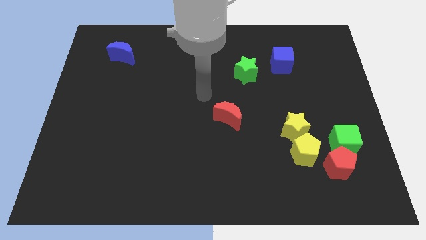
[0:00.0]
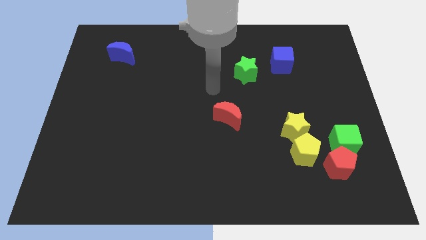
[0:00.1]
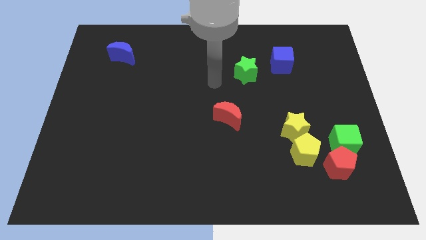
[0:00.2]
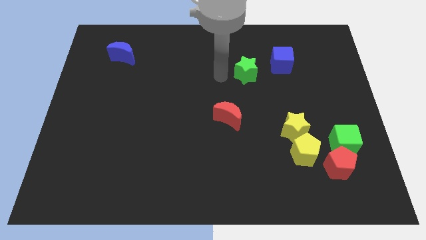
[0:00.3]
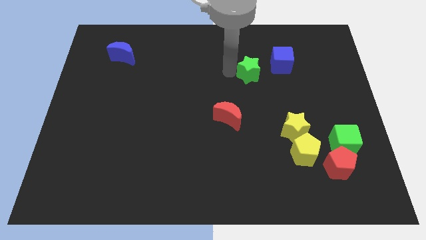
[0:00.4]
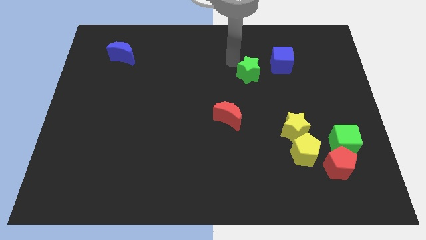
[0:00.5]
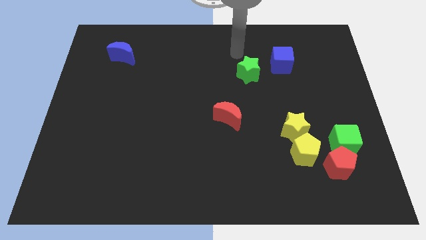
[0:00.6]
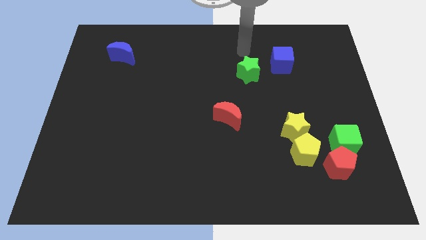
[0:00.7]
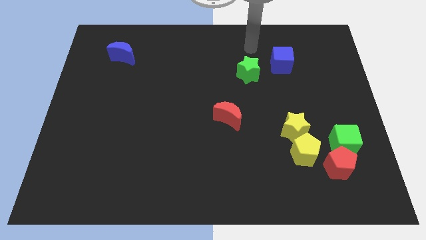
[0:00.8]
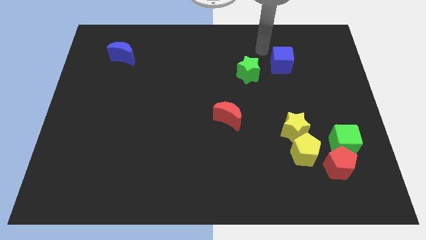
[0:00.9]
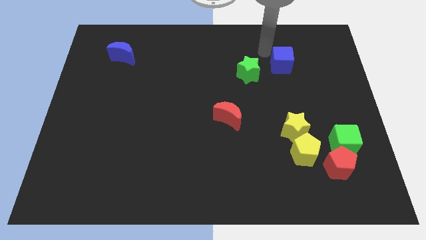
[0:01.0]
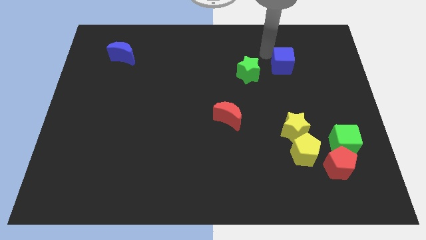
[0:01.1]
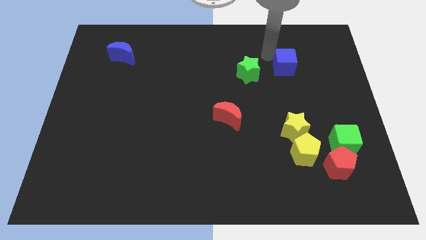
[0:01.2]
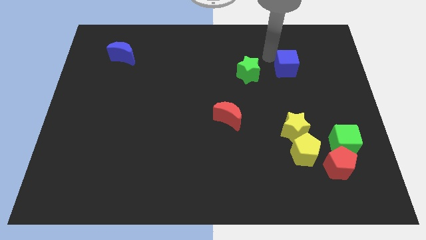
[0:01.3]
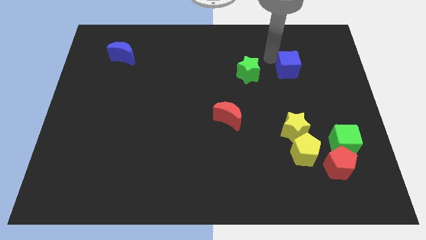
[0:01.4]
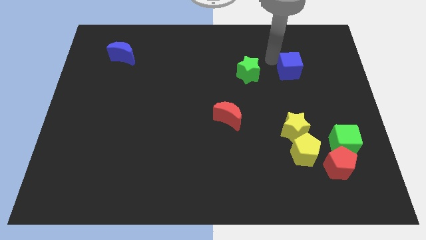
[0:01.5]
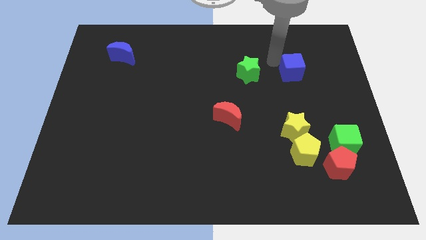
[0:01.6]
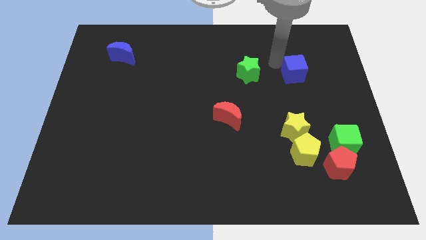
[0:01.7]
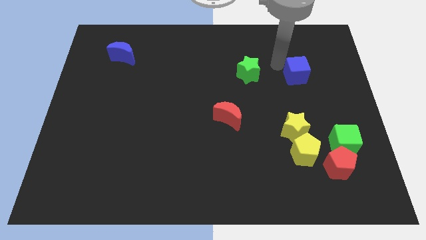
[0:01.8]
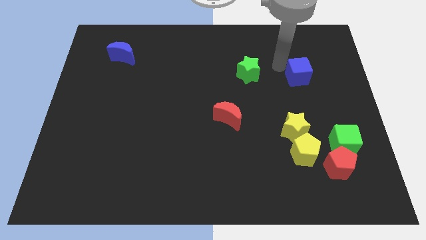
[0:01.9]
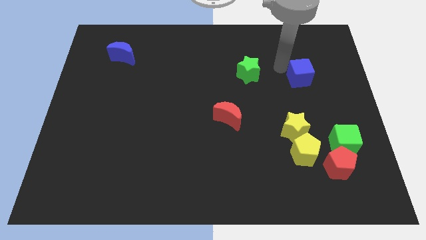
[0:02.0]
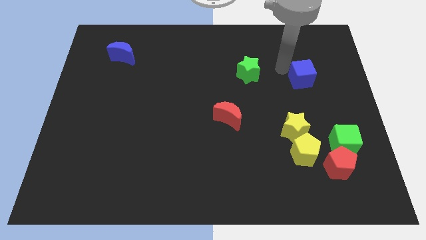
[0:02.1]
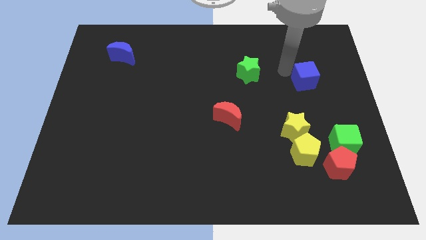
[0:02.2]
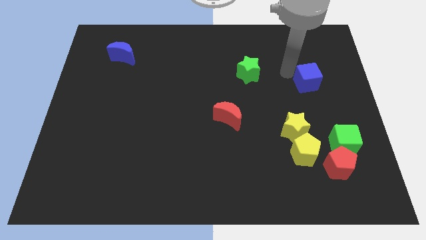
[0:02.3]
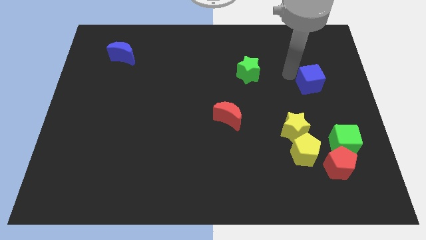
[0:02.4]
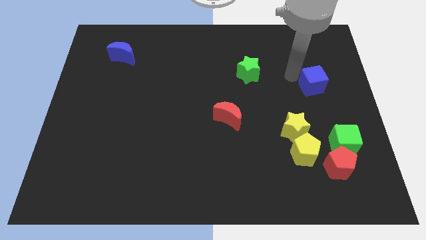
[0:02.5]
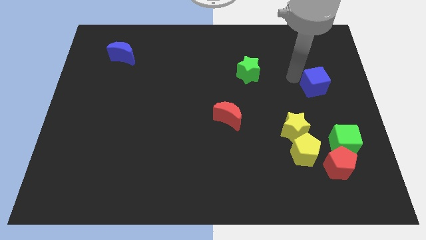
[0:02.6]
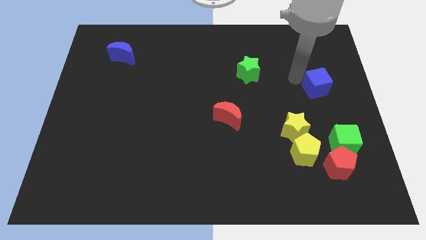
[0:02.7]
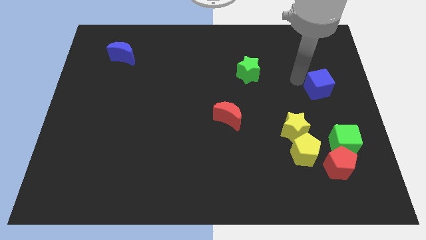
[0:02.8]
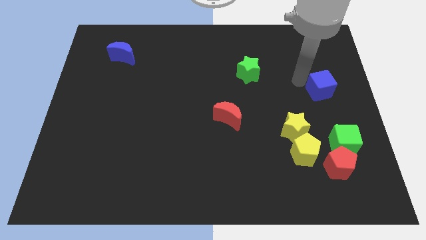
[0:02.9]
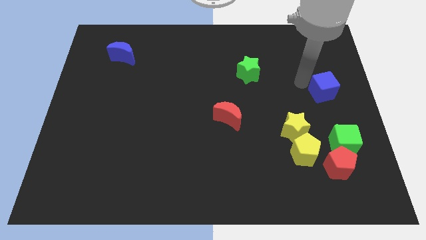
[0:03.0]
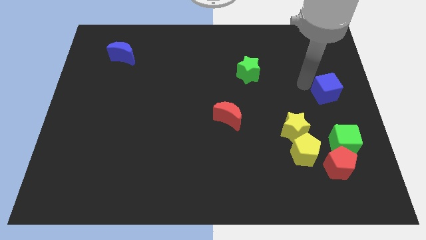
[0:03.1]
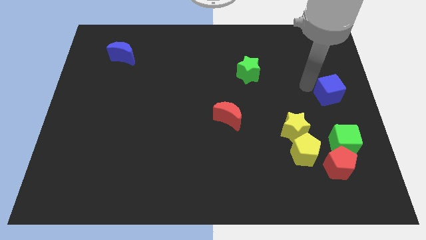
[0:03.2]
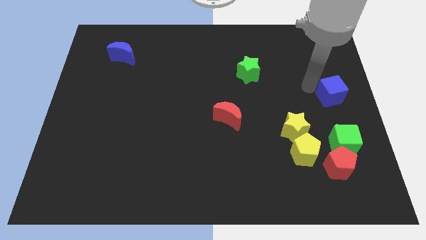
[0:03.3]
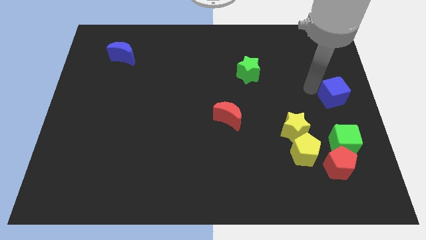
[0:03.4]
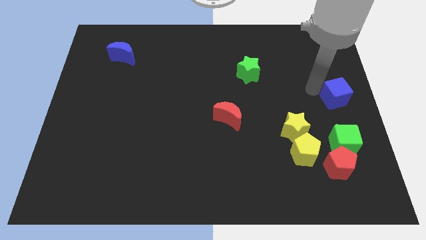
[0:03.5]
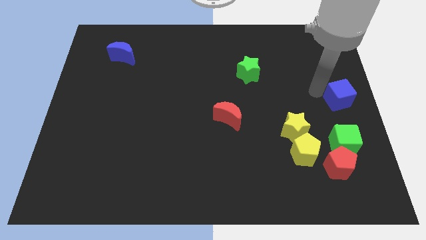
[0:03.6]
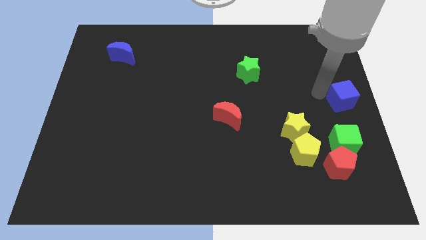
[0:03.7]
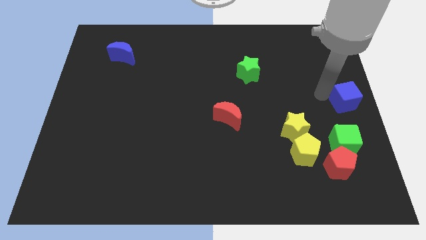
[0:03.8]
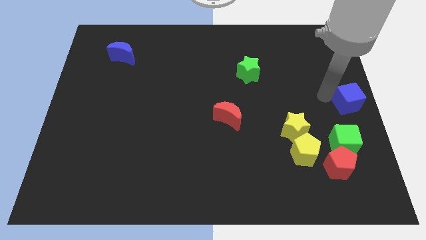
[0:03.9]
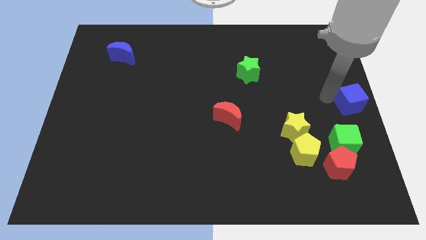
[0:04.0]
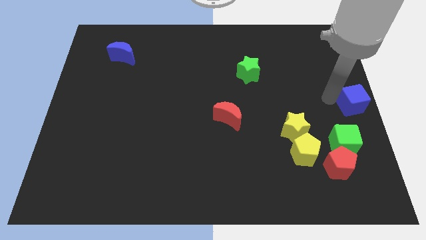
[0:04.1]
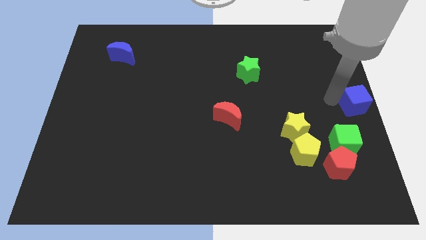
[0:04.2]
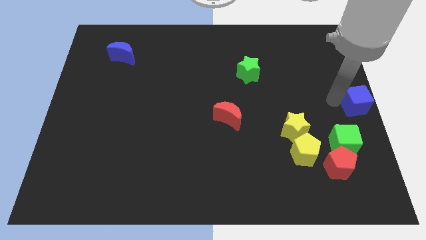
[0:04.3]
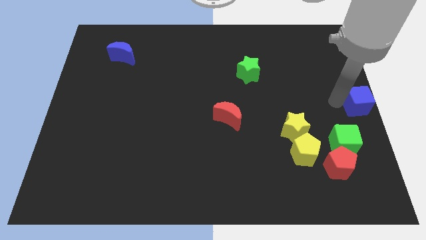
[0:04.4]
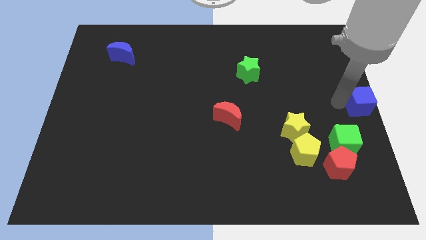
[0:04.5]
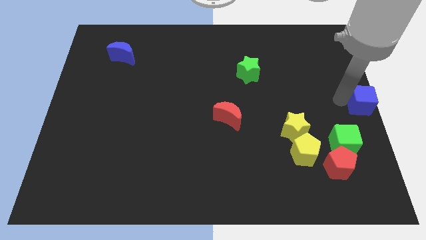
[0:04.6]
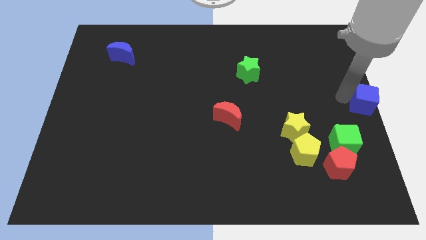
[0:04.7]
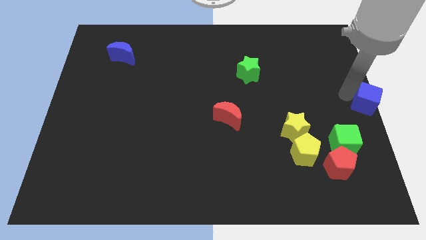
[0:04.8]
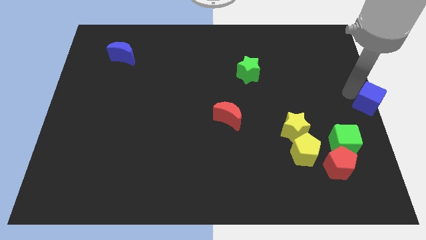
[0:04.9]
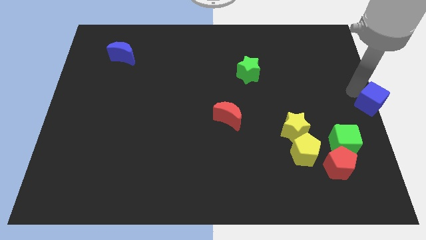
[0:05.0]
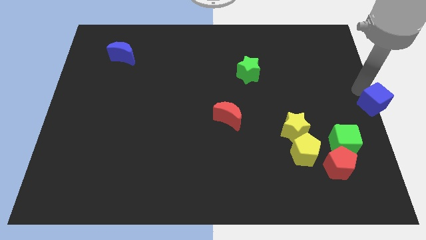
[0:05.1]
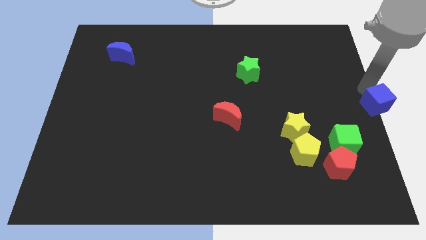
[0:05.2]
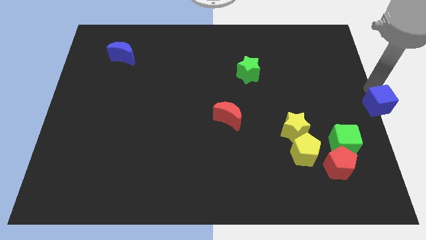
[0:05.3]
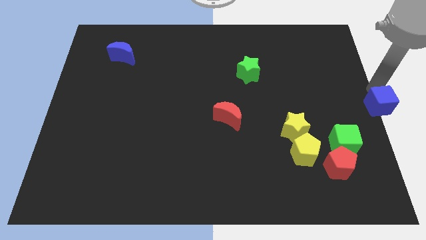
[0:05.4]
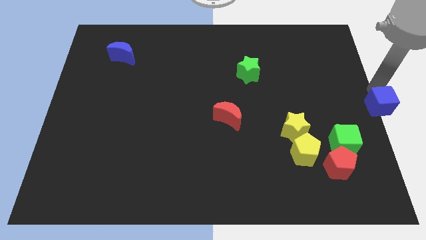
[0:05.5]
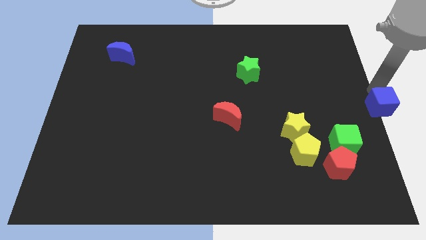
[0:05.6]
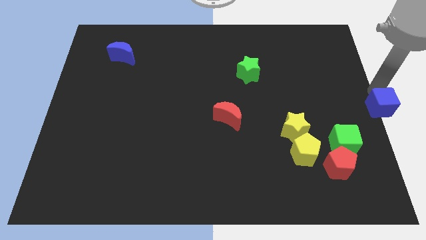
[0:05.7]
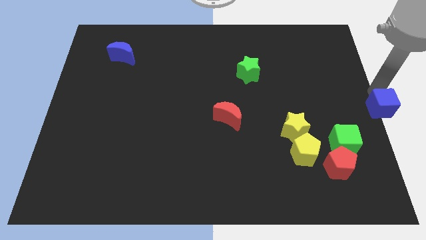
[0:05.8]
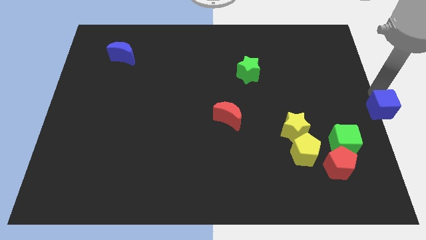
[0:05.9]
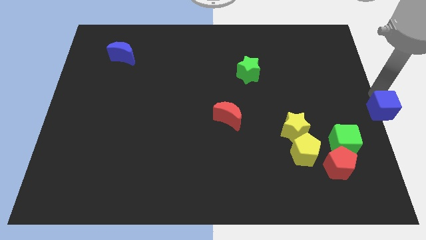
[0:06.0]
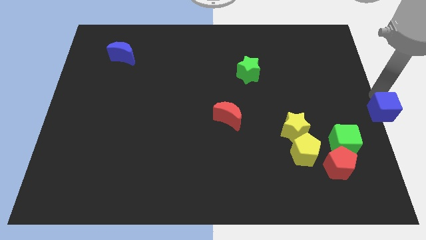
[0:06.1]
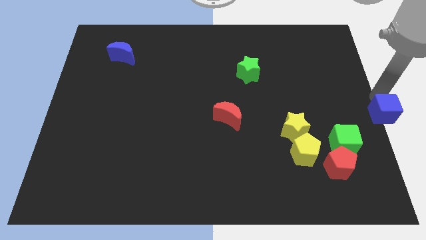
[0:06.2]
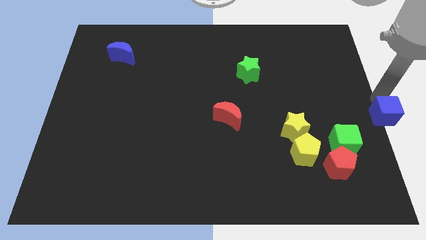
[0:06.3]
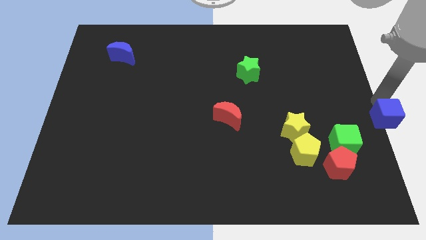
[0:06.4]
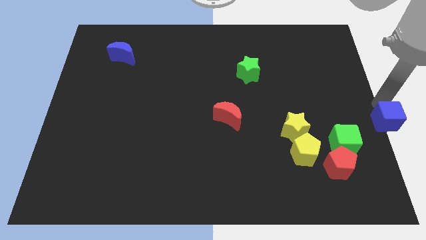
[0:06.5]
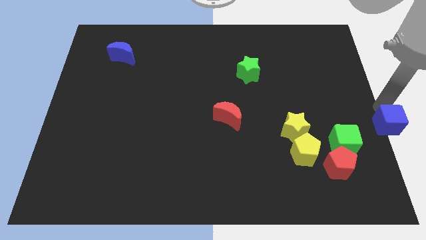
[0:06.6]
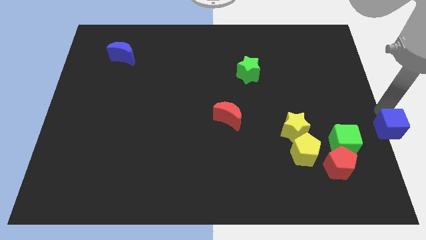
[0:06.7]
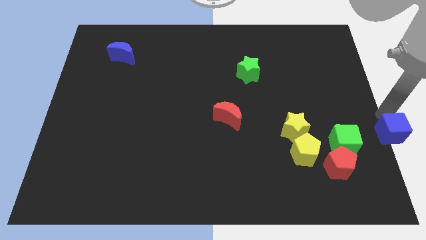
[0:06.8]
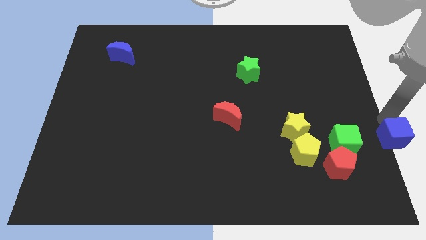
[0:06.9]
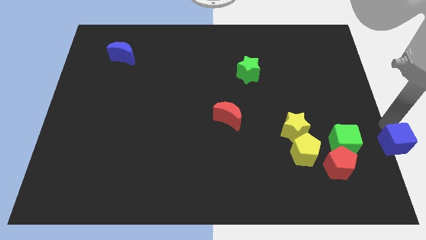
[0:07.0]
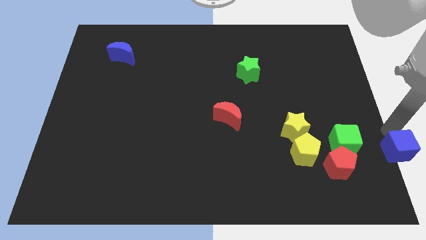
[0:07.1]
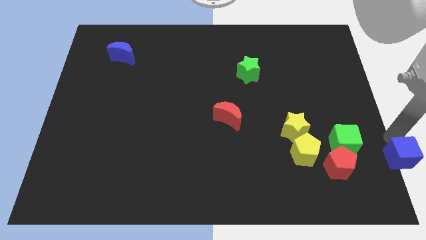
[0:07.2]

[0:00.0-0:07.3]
slide the blue cube to the bottom right corner
